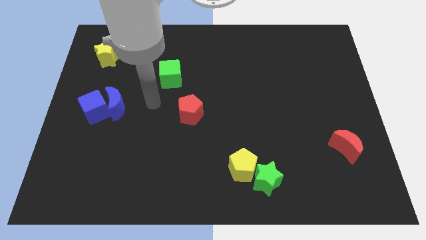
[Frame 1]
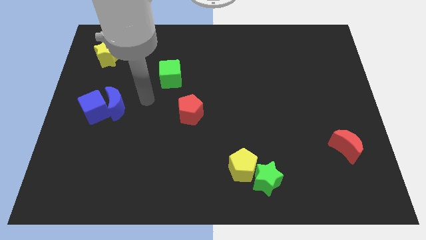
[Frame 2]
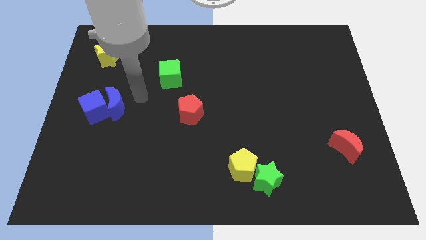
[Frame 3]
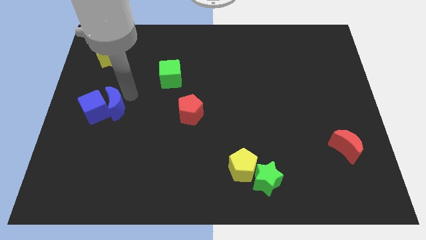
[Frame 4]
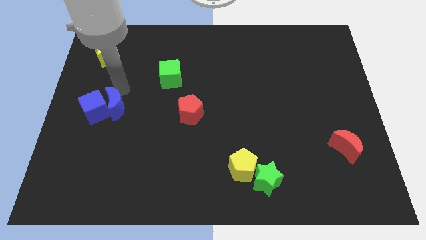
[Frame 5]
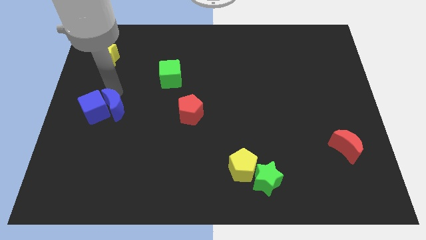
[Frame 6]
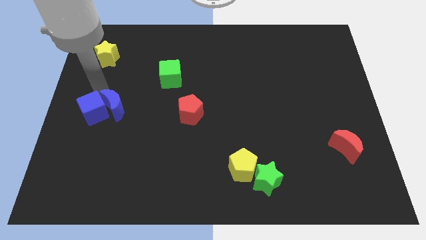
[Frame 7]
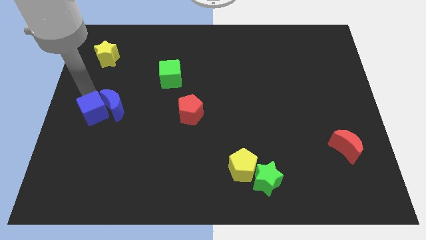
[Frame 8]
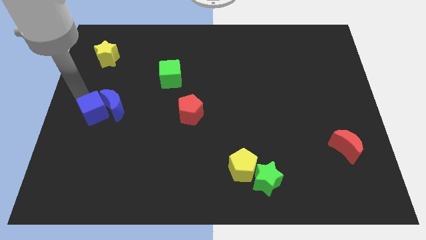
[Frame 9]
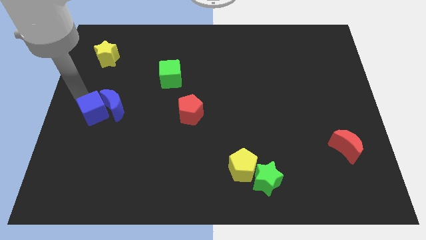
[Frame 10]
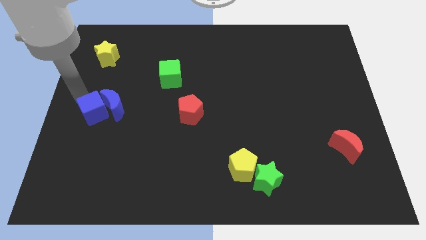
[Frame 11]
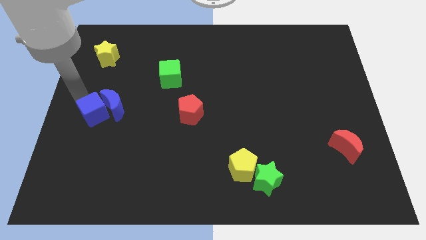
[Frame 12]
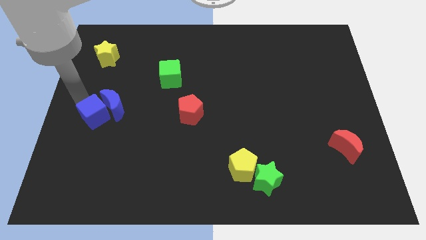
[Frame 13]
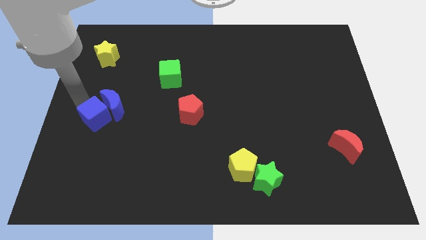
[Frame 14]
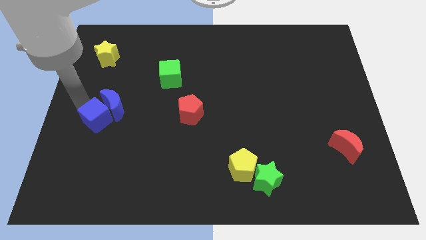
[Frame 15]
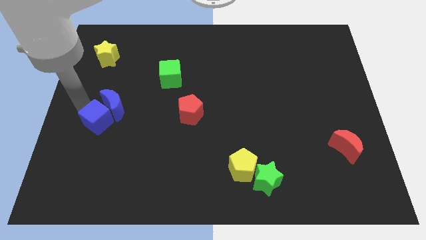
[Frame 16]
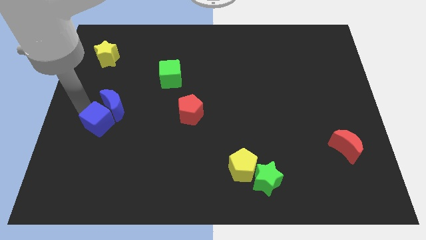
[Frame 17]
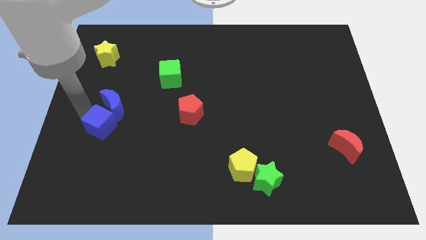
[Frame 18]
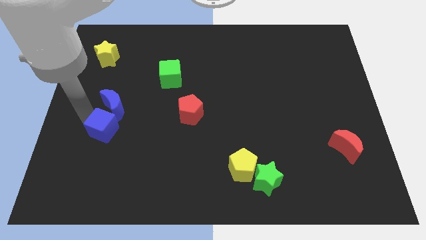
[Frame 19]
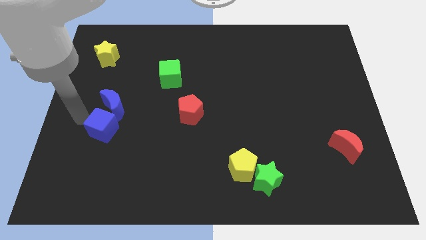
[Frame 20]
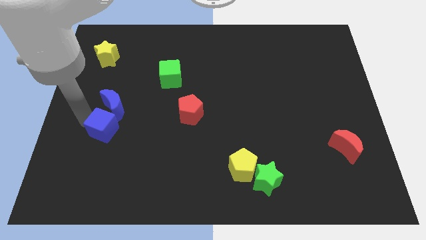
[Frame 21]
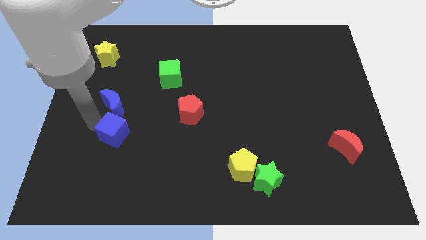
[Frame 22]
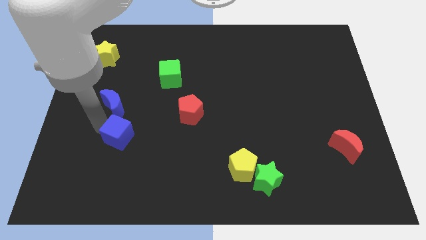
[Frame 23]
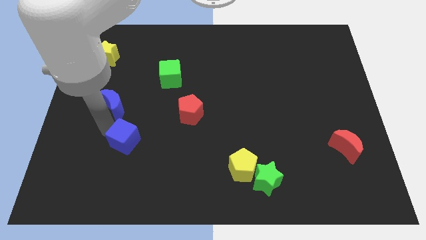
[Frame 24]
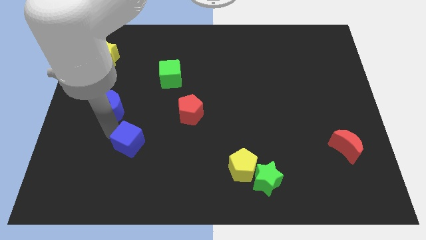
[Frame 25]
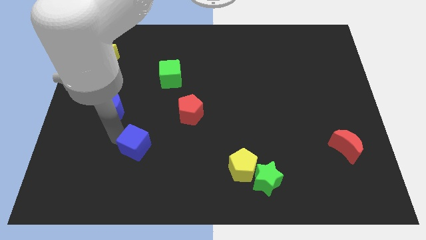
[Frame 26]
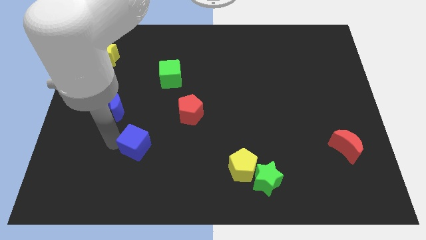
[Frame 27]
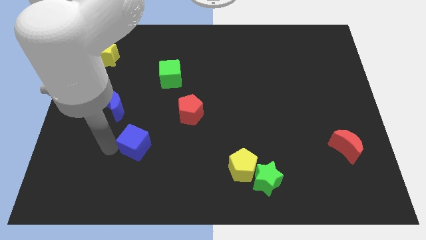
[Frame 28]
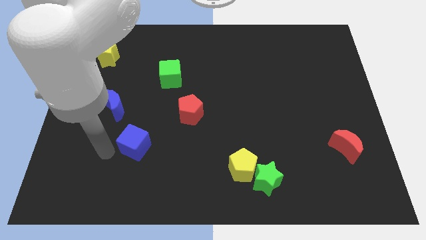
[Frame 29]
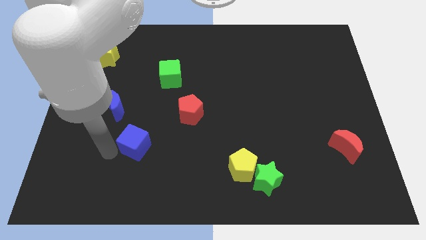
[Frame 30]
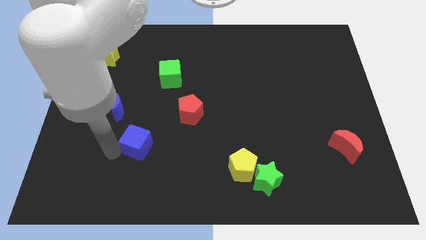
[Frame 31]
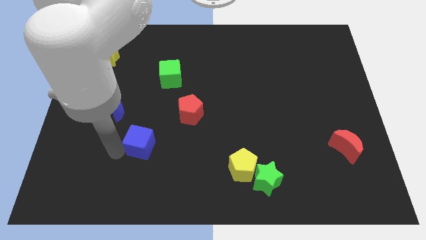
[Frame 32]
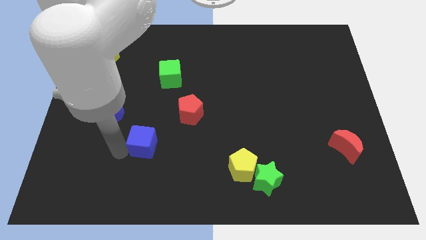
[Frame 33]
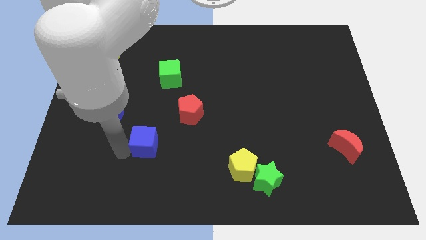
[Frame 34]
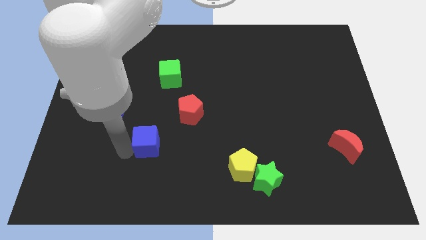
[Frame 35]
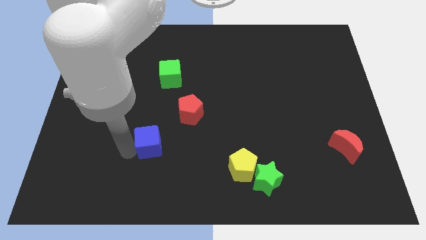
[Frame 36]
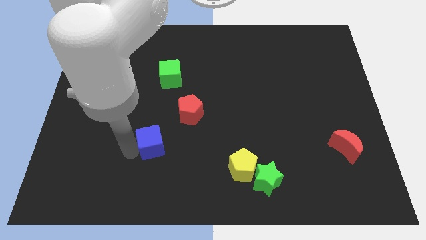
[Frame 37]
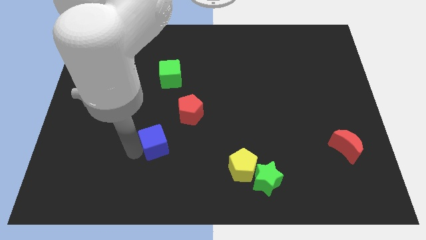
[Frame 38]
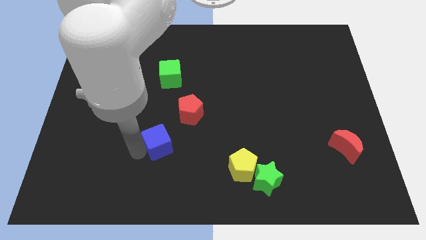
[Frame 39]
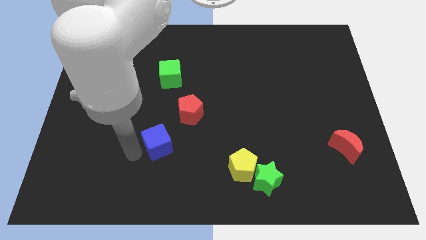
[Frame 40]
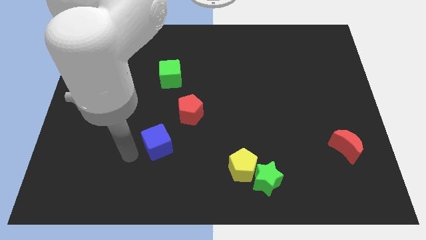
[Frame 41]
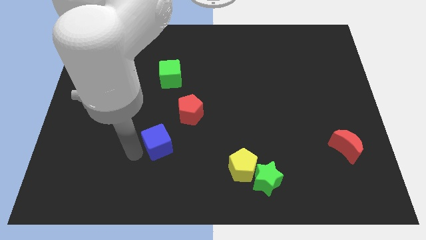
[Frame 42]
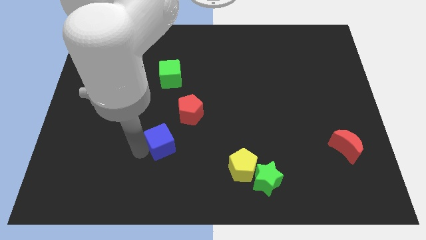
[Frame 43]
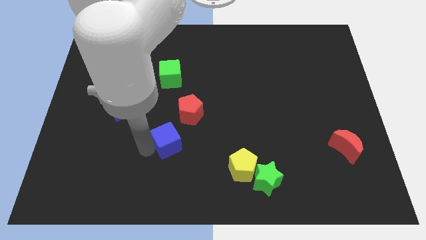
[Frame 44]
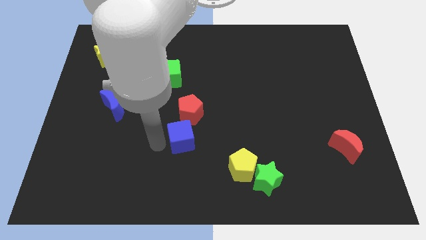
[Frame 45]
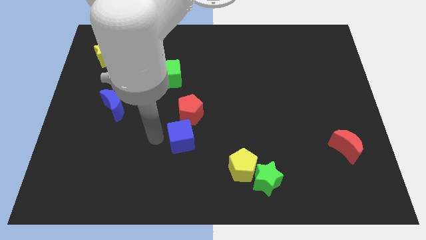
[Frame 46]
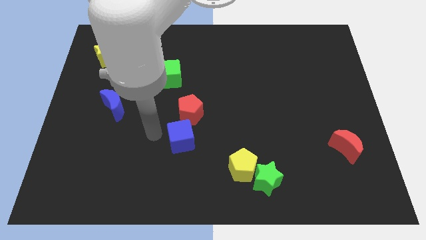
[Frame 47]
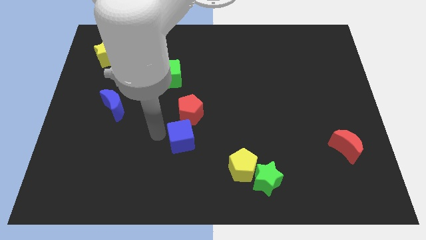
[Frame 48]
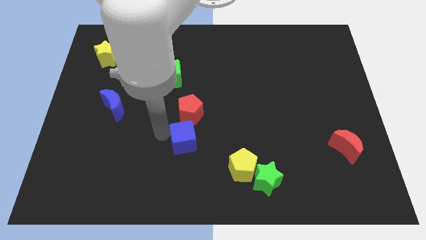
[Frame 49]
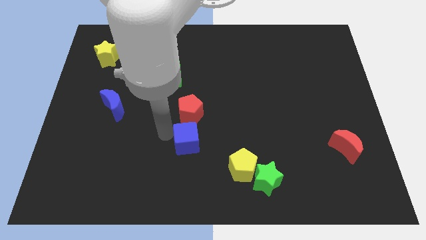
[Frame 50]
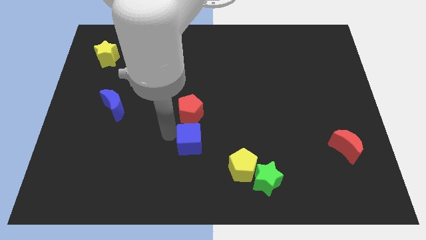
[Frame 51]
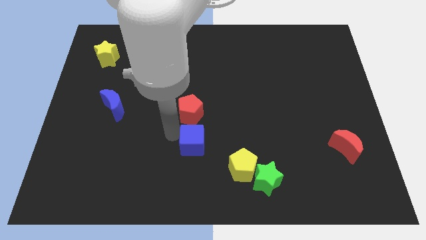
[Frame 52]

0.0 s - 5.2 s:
move the blue cube to the top left of the yellow pentagon

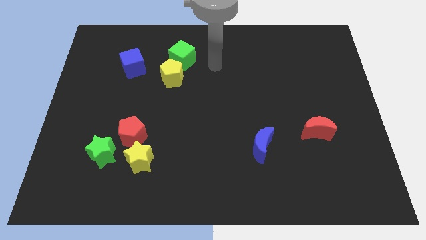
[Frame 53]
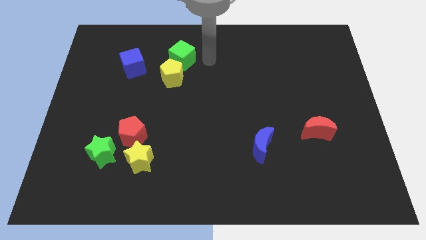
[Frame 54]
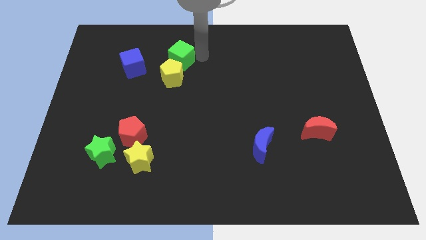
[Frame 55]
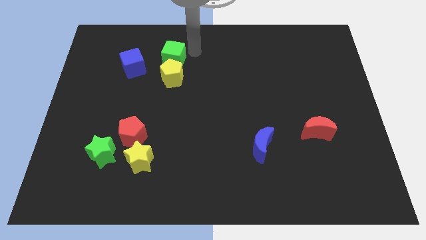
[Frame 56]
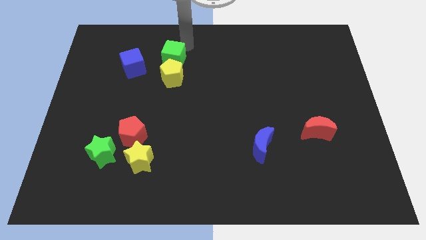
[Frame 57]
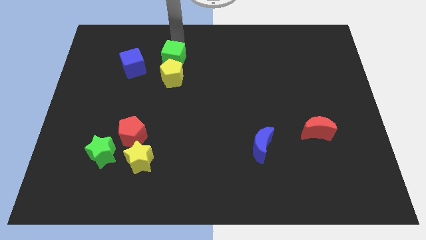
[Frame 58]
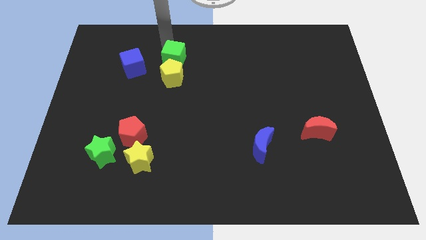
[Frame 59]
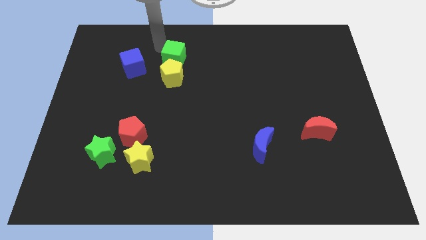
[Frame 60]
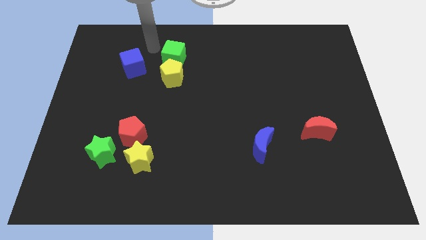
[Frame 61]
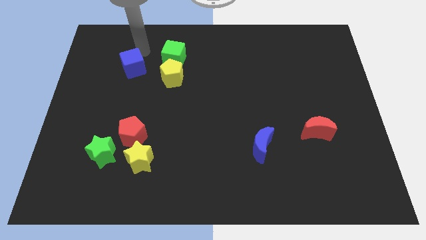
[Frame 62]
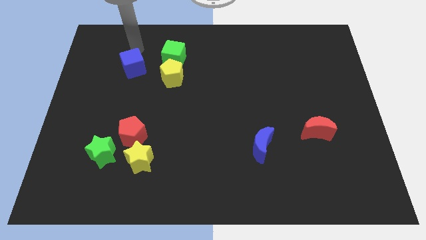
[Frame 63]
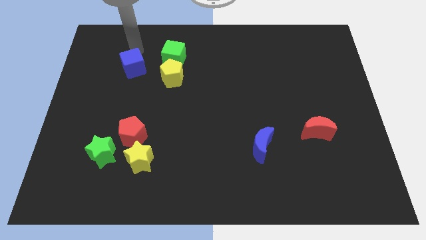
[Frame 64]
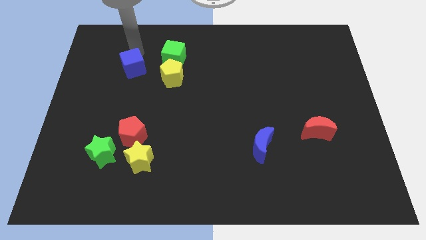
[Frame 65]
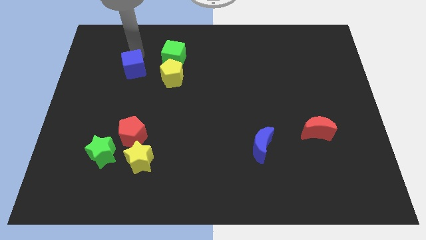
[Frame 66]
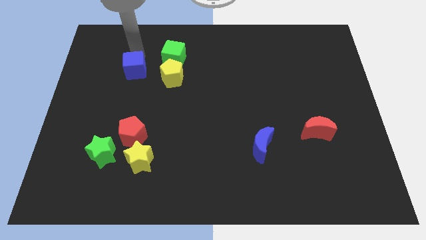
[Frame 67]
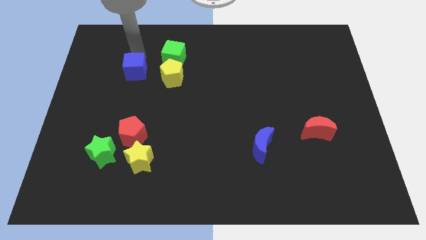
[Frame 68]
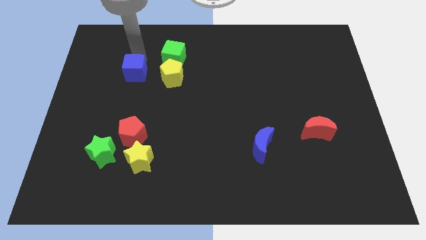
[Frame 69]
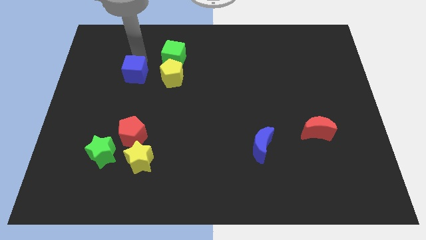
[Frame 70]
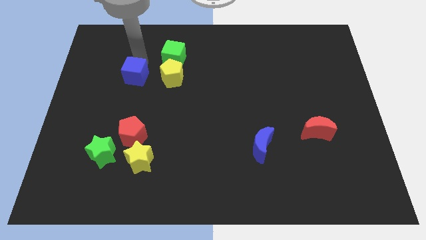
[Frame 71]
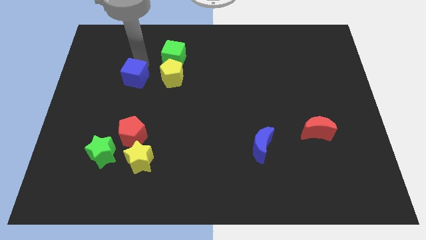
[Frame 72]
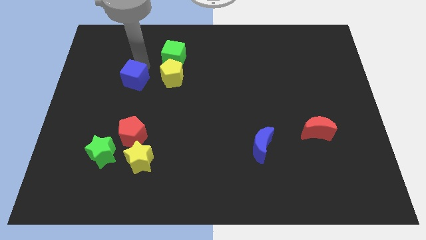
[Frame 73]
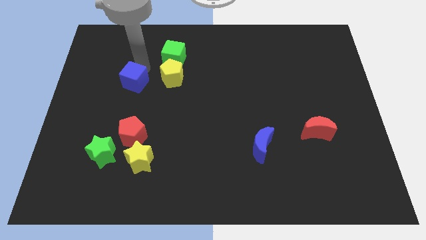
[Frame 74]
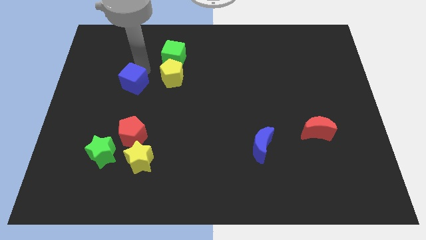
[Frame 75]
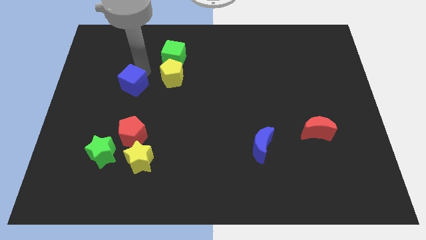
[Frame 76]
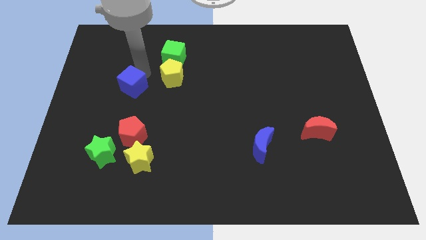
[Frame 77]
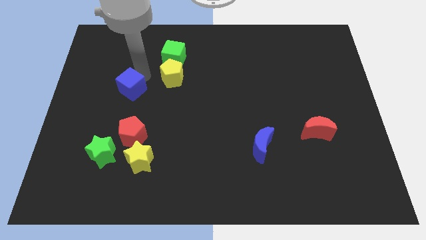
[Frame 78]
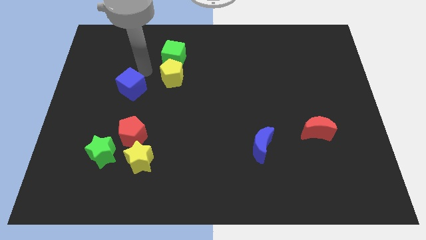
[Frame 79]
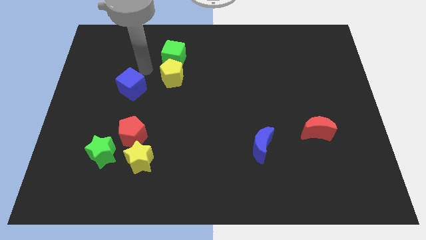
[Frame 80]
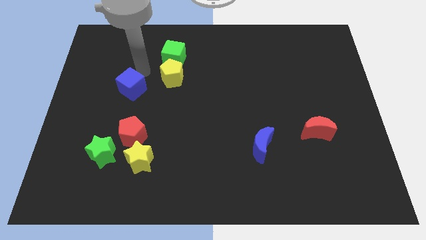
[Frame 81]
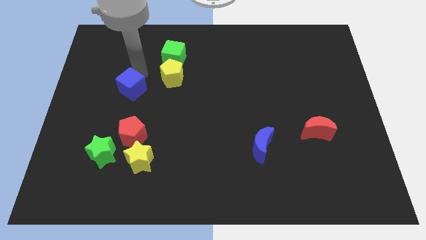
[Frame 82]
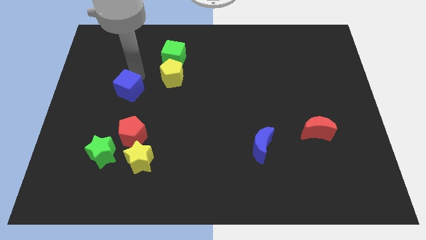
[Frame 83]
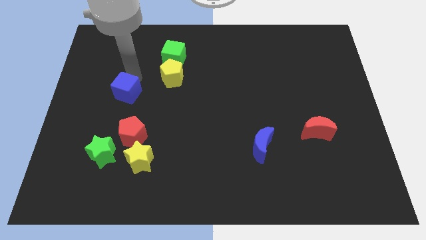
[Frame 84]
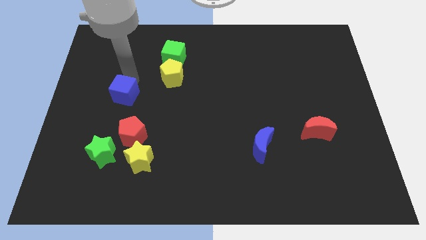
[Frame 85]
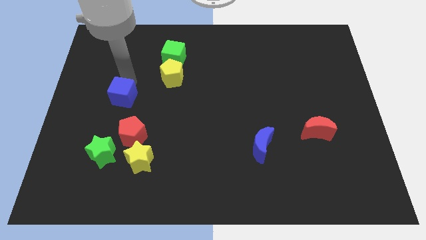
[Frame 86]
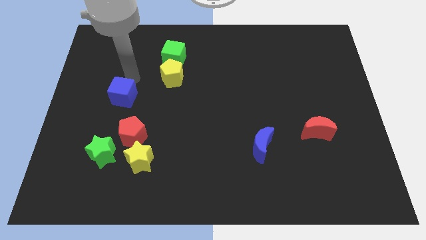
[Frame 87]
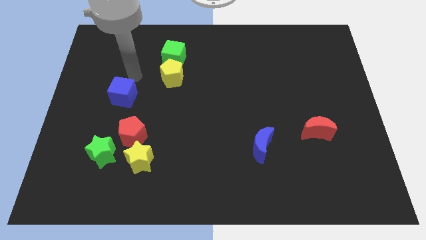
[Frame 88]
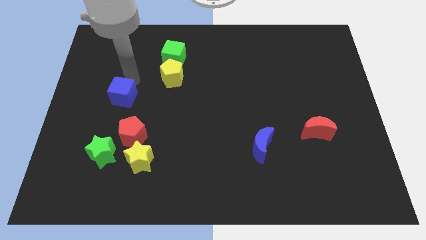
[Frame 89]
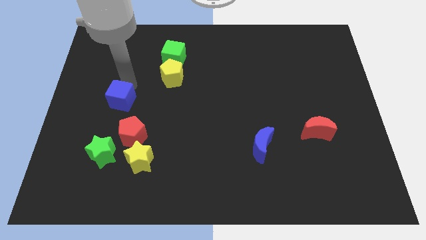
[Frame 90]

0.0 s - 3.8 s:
slide the blue cube to the top of the green star
